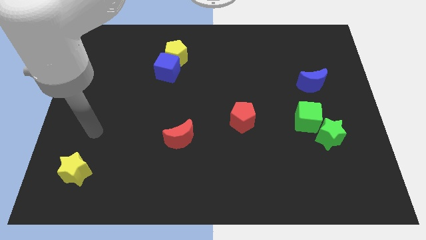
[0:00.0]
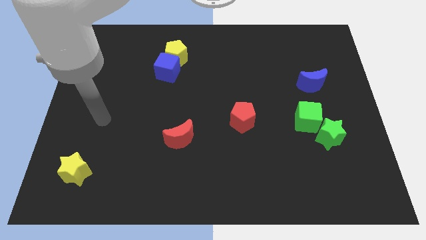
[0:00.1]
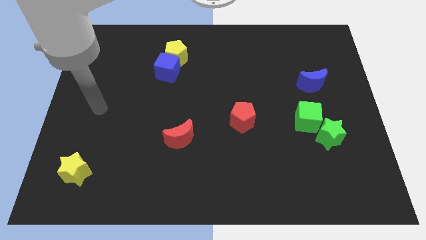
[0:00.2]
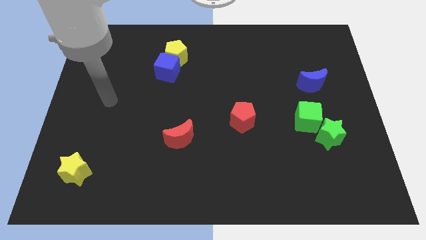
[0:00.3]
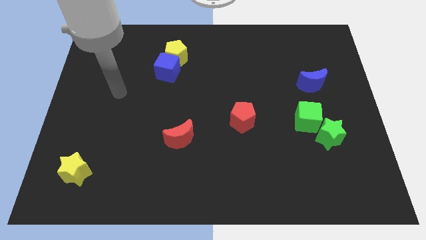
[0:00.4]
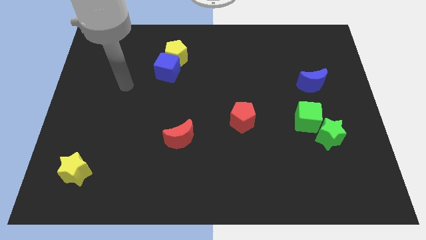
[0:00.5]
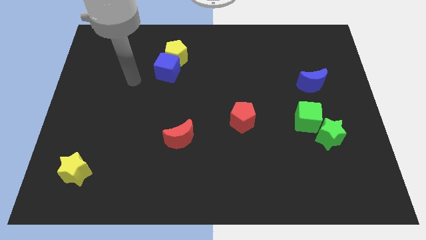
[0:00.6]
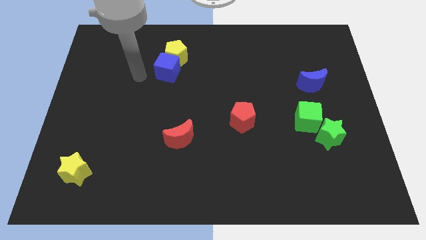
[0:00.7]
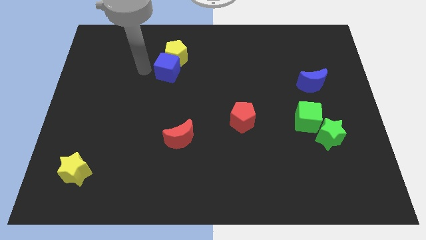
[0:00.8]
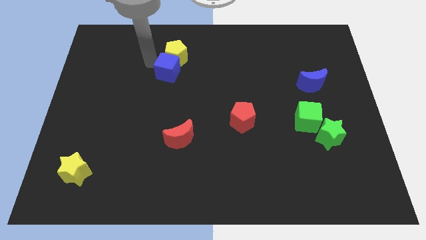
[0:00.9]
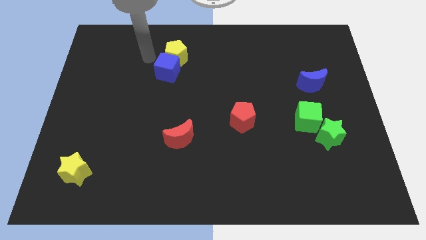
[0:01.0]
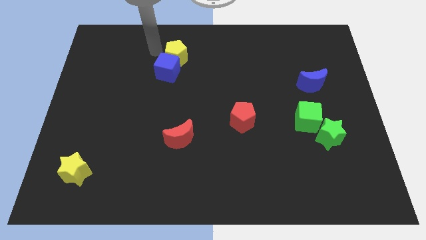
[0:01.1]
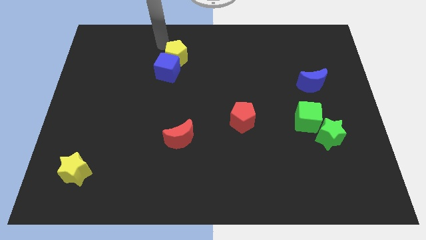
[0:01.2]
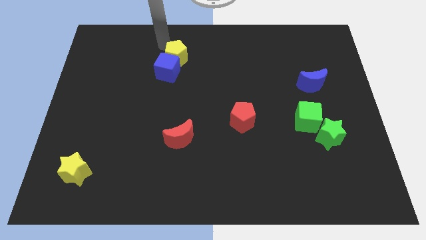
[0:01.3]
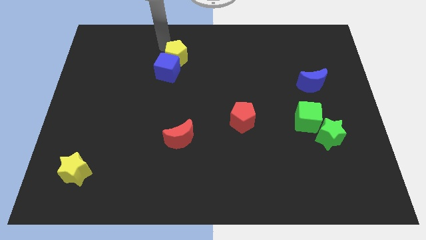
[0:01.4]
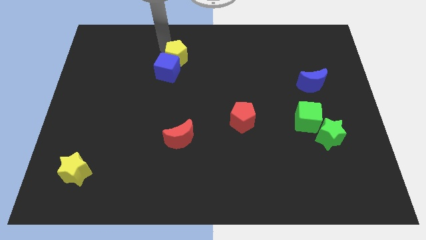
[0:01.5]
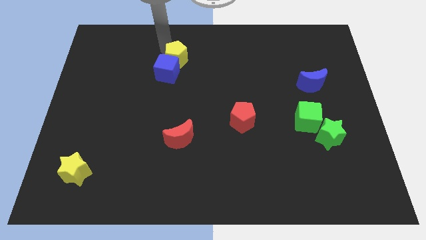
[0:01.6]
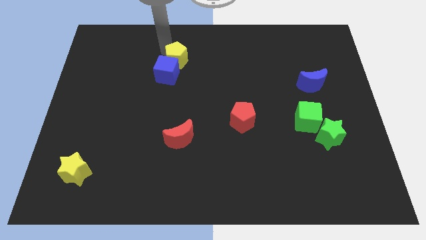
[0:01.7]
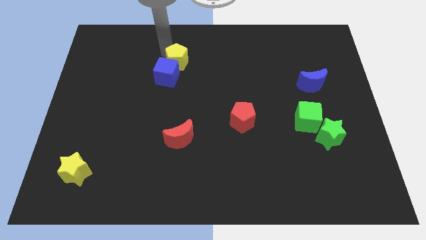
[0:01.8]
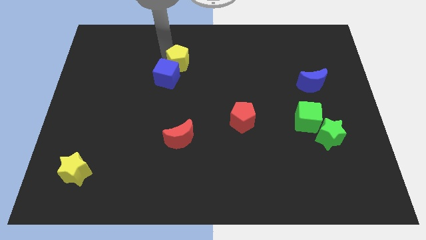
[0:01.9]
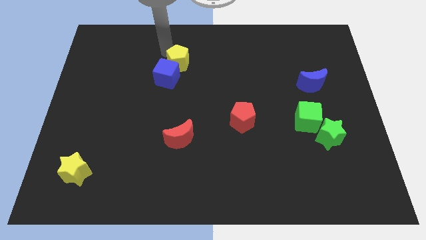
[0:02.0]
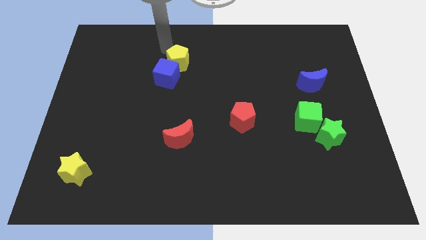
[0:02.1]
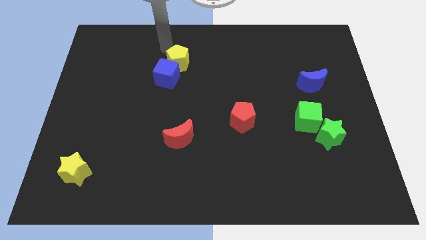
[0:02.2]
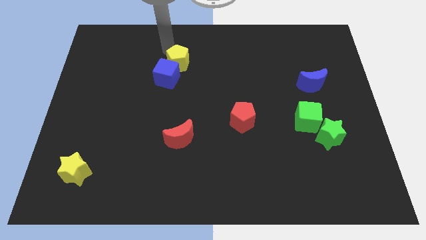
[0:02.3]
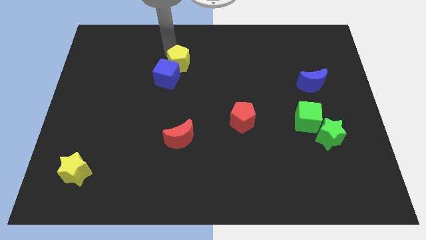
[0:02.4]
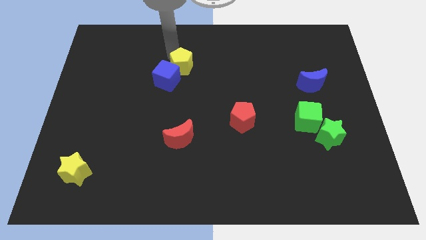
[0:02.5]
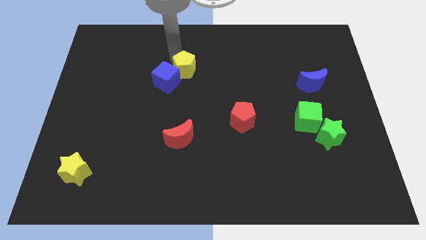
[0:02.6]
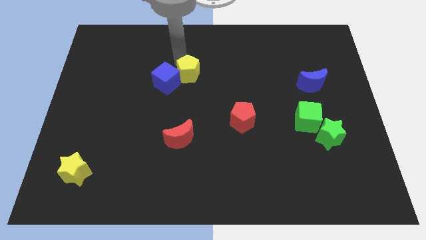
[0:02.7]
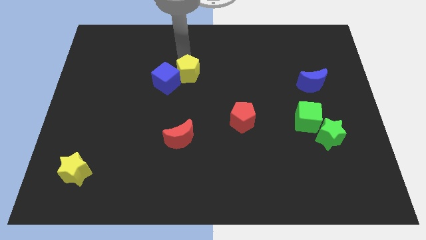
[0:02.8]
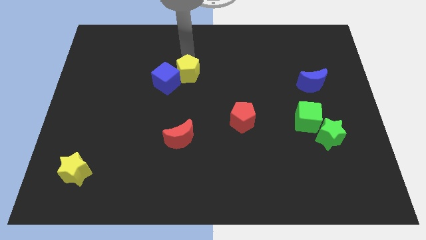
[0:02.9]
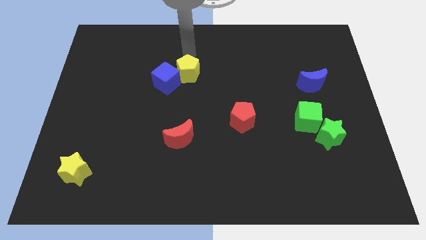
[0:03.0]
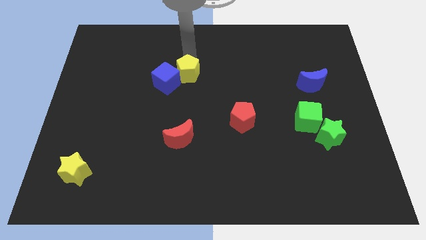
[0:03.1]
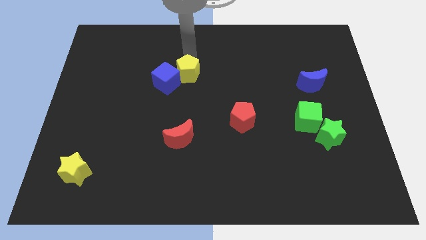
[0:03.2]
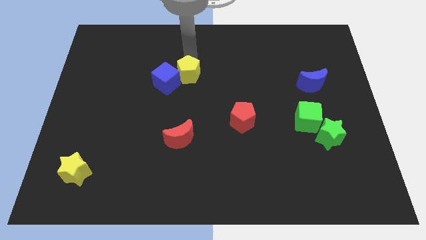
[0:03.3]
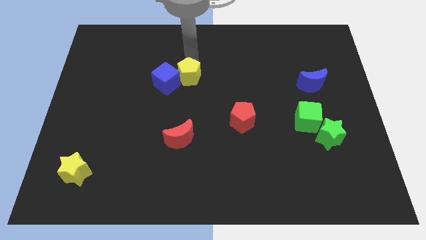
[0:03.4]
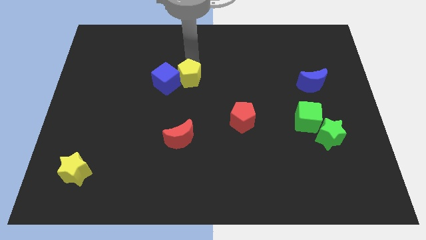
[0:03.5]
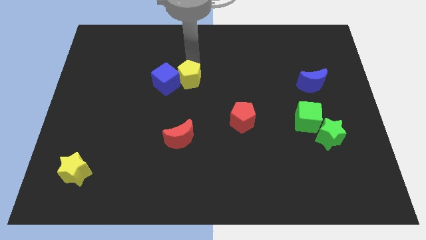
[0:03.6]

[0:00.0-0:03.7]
move the yellow pentagon downwards somewhat

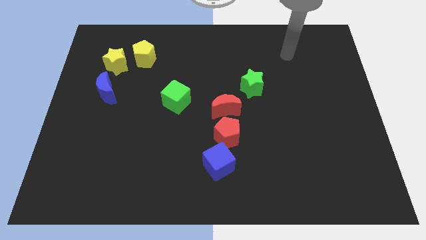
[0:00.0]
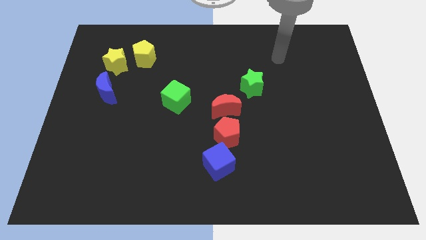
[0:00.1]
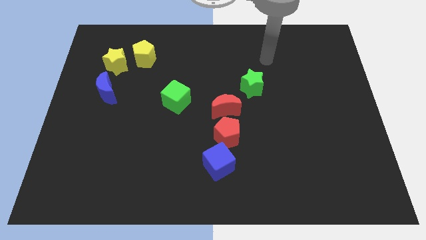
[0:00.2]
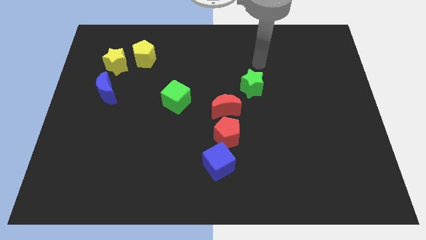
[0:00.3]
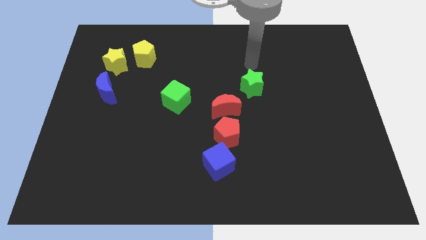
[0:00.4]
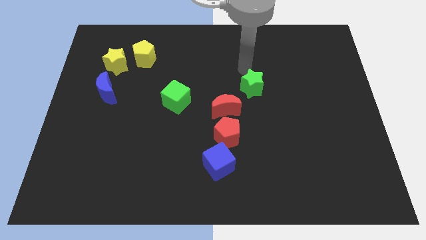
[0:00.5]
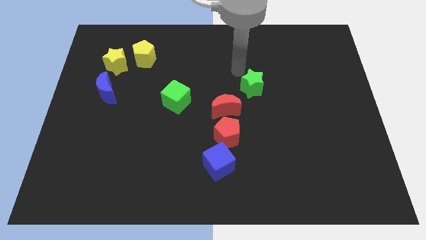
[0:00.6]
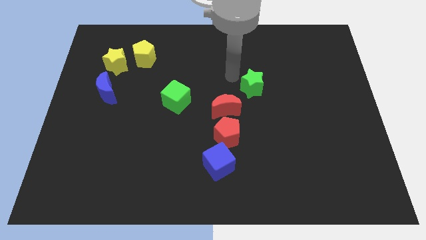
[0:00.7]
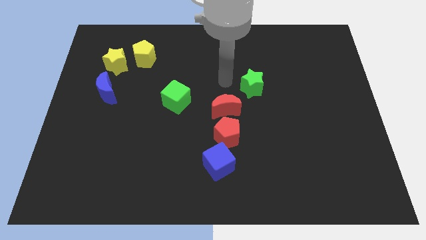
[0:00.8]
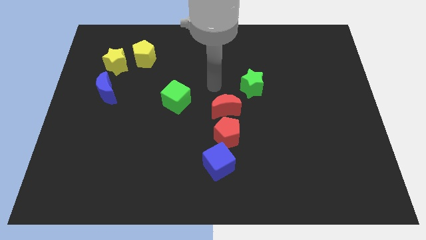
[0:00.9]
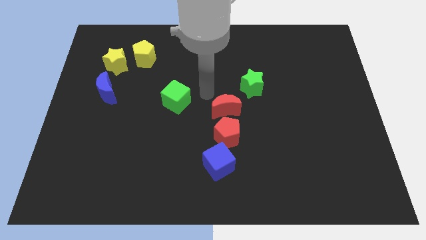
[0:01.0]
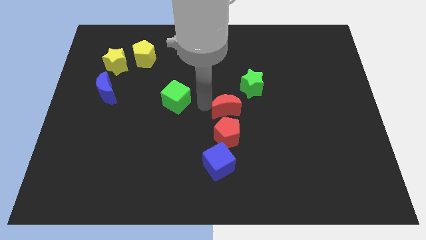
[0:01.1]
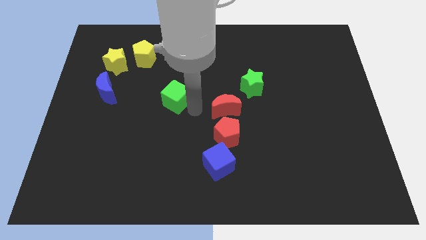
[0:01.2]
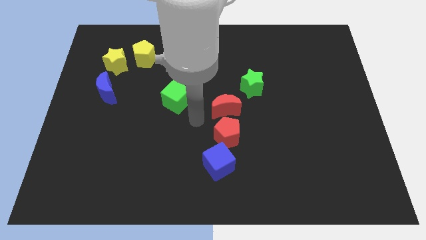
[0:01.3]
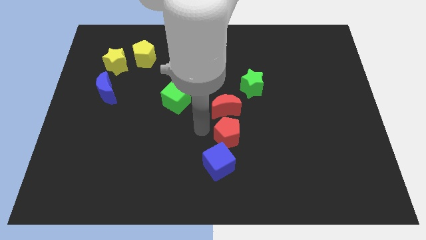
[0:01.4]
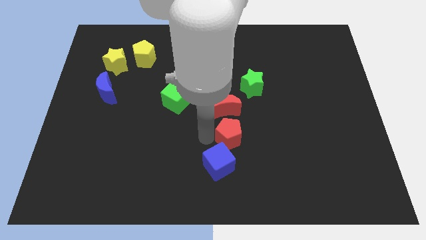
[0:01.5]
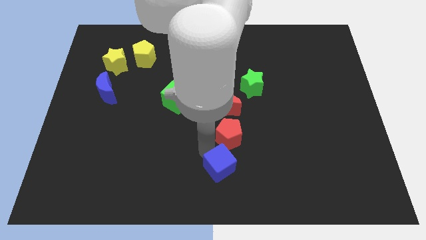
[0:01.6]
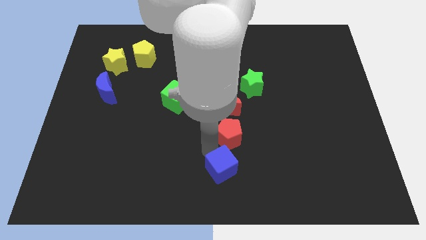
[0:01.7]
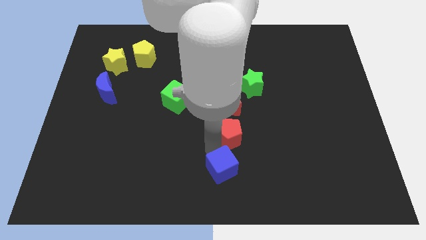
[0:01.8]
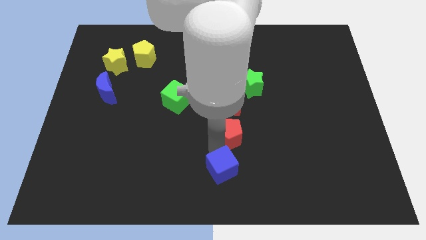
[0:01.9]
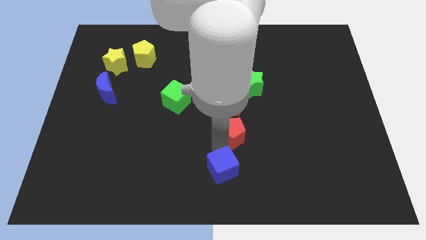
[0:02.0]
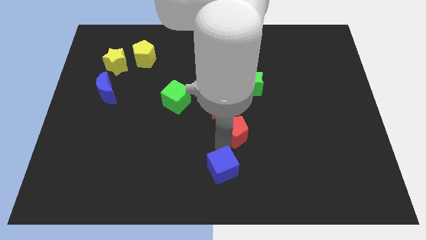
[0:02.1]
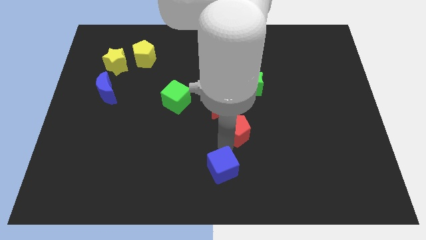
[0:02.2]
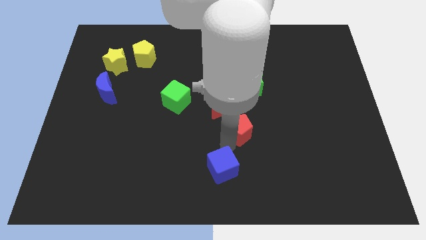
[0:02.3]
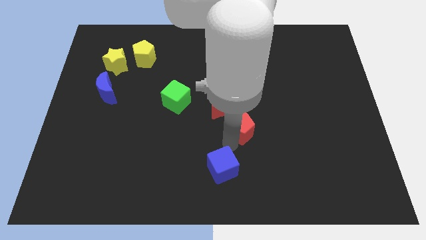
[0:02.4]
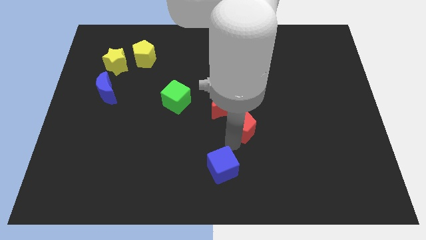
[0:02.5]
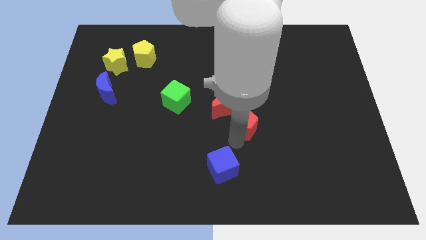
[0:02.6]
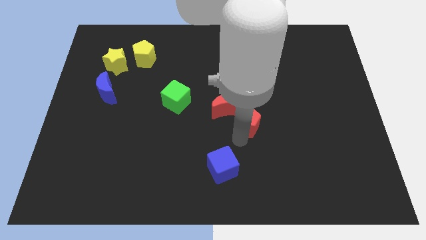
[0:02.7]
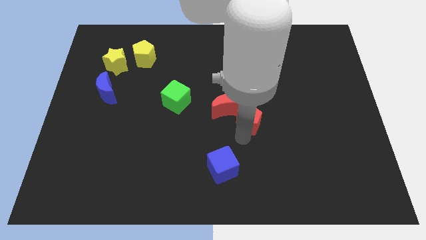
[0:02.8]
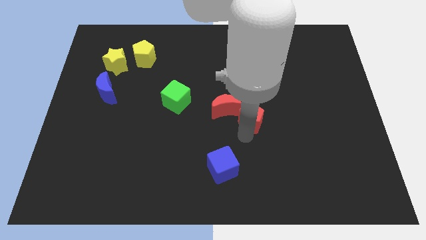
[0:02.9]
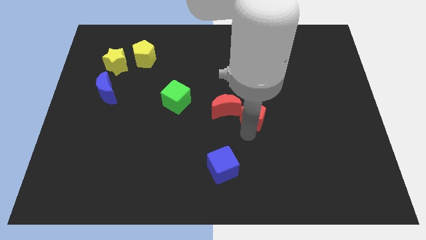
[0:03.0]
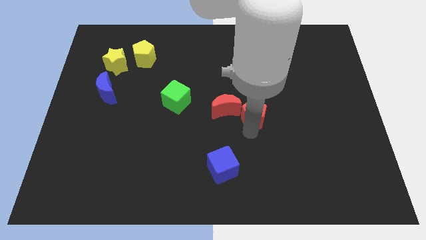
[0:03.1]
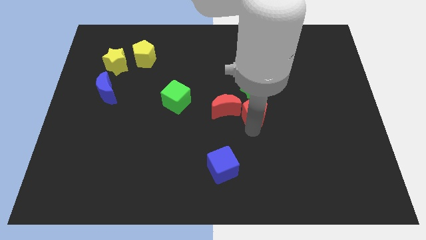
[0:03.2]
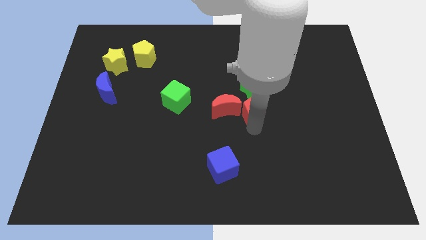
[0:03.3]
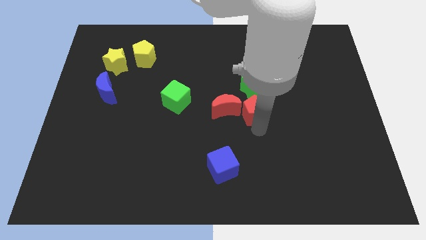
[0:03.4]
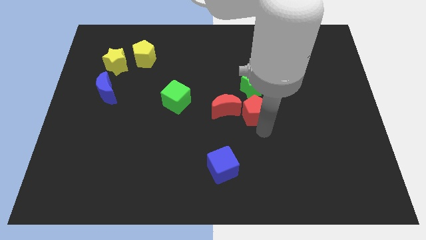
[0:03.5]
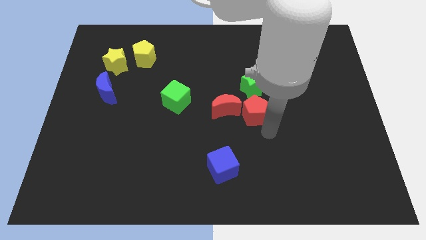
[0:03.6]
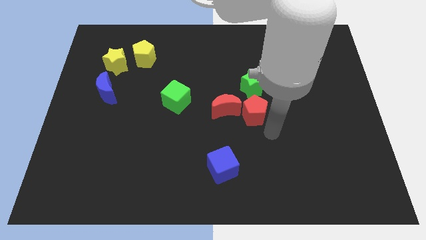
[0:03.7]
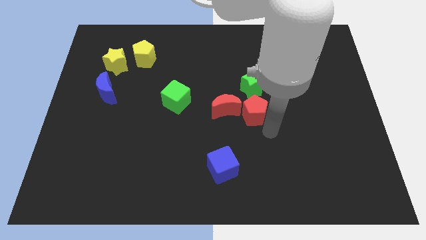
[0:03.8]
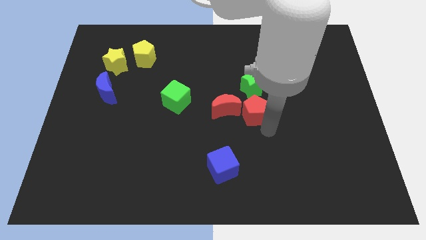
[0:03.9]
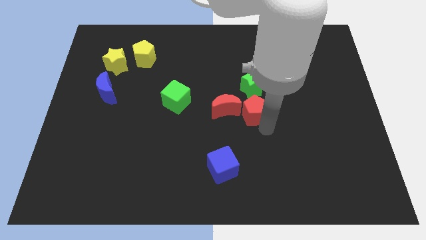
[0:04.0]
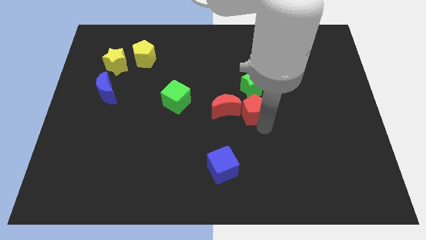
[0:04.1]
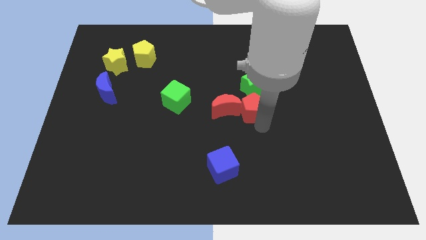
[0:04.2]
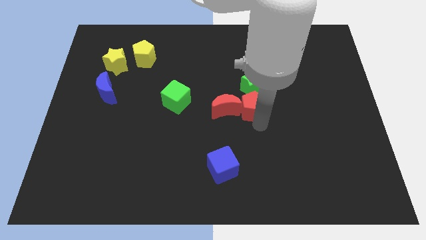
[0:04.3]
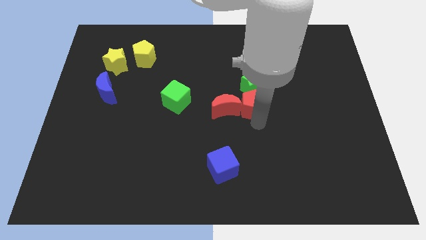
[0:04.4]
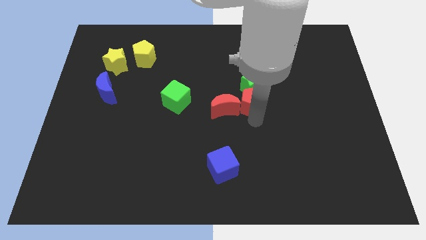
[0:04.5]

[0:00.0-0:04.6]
slightly push the red pentagon up
